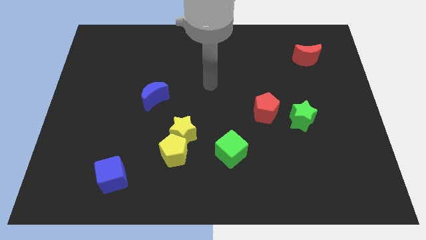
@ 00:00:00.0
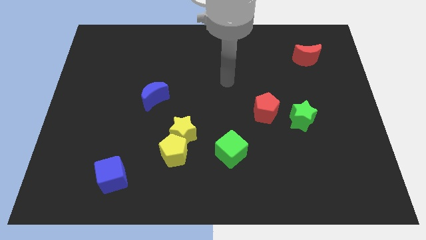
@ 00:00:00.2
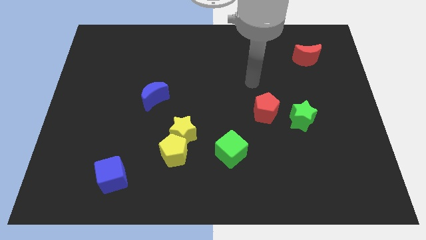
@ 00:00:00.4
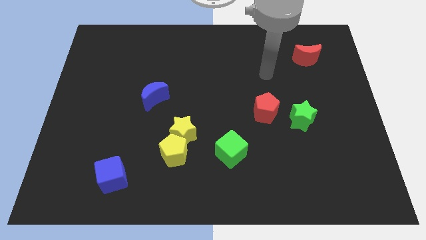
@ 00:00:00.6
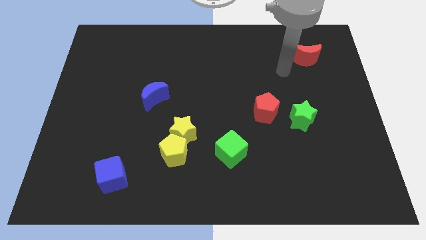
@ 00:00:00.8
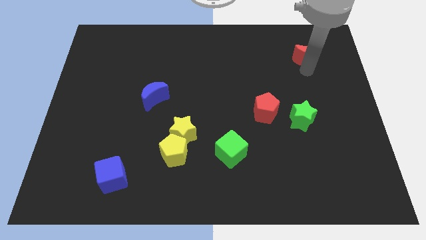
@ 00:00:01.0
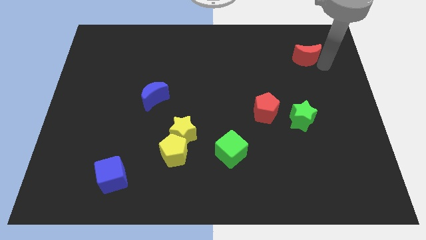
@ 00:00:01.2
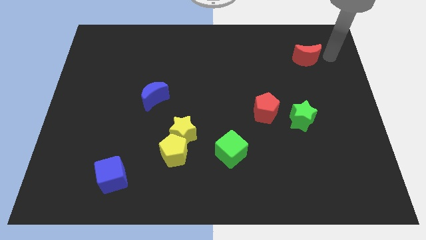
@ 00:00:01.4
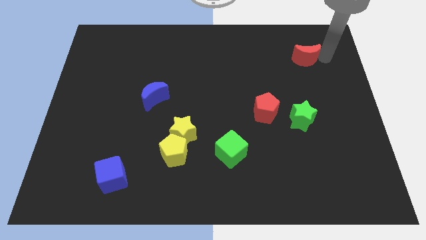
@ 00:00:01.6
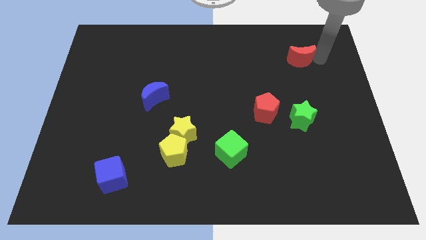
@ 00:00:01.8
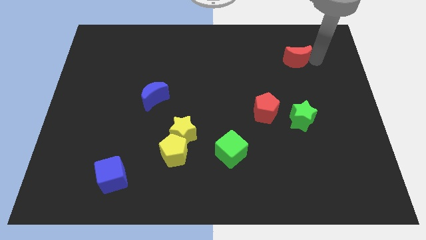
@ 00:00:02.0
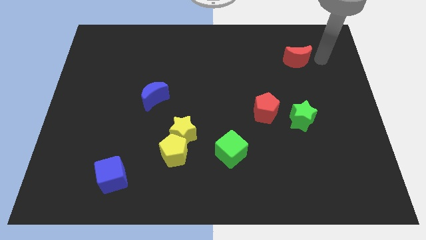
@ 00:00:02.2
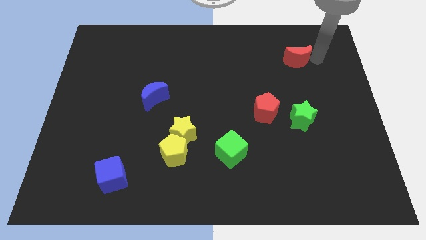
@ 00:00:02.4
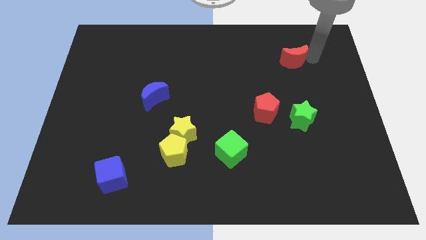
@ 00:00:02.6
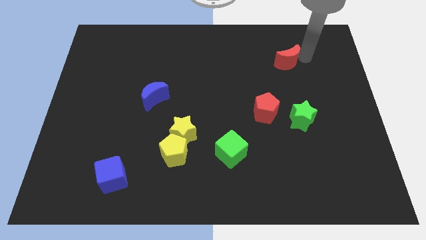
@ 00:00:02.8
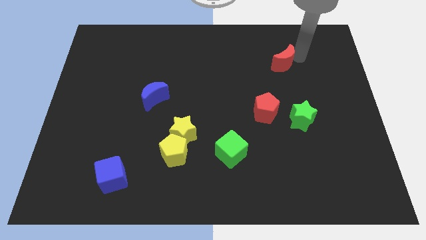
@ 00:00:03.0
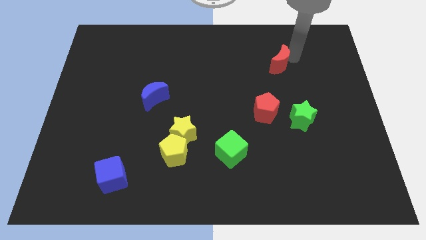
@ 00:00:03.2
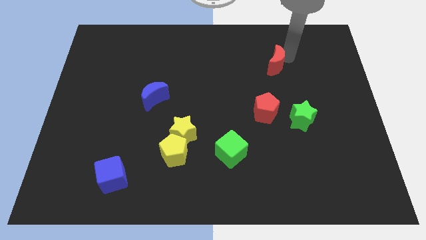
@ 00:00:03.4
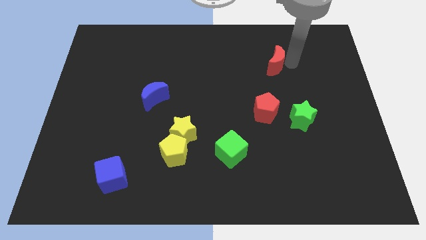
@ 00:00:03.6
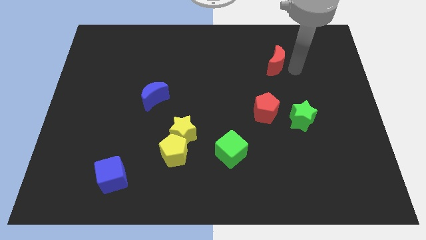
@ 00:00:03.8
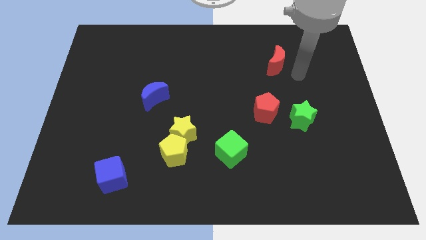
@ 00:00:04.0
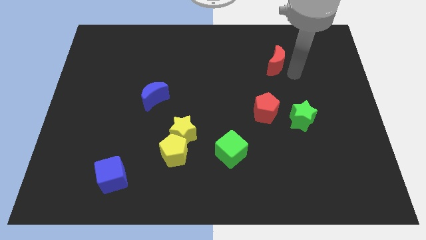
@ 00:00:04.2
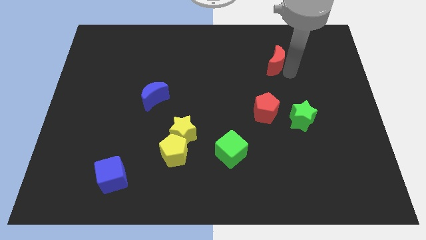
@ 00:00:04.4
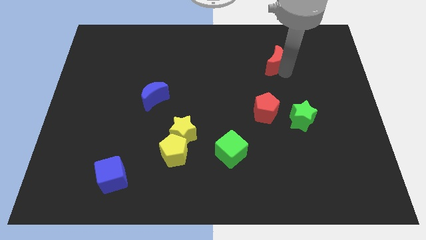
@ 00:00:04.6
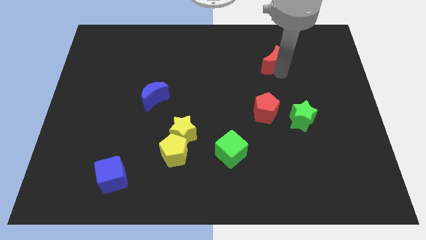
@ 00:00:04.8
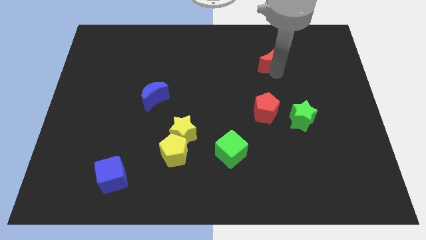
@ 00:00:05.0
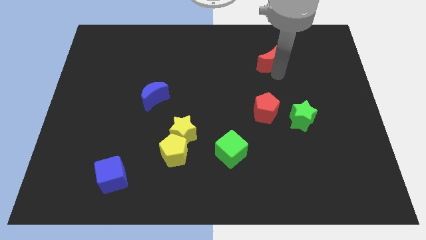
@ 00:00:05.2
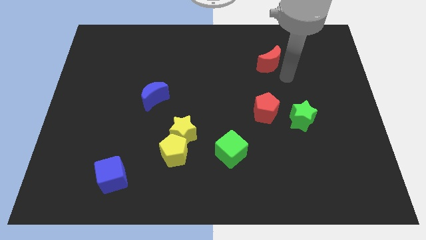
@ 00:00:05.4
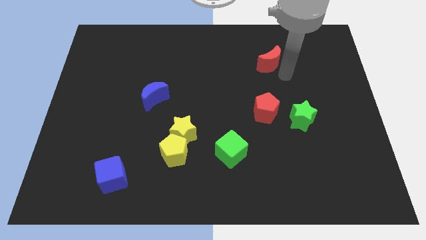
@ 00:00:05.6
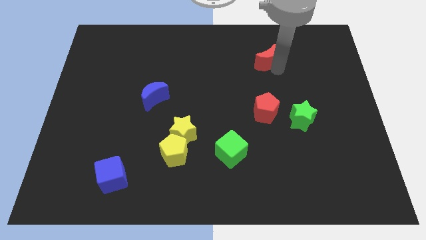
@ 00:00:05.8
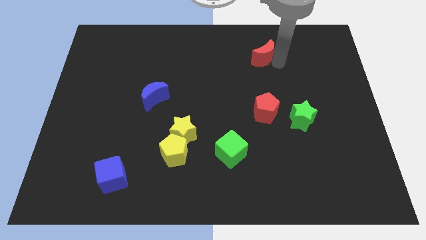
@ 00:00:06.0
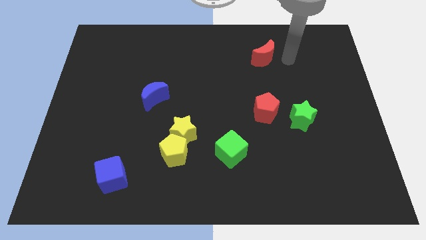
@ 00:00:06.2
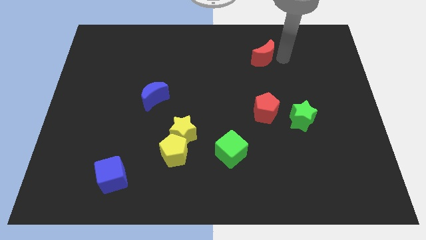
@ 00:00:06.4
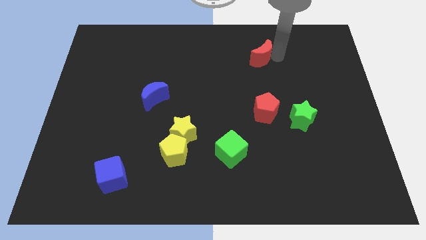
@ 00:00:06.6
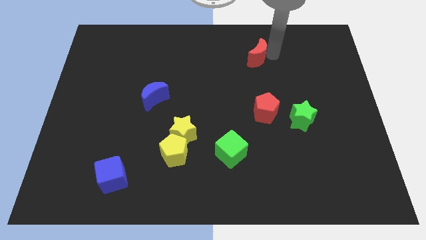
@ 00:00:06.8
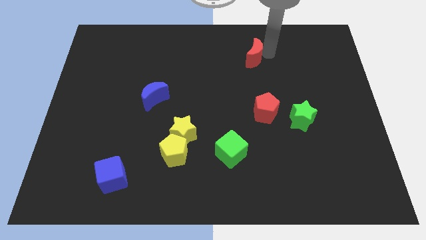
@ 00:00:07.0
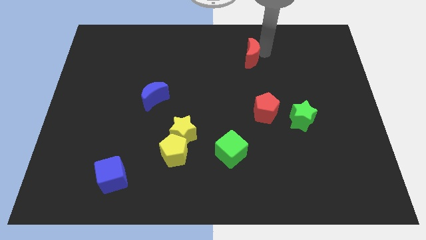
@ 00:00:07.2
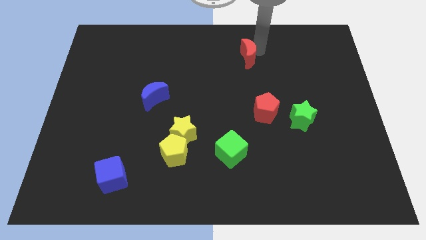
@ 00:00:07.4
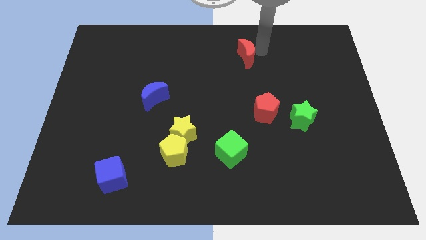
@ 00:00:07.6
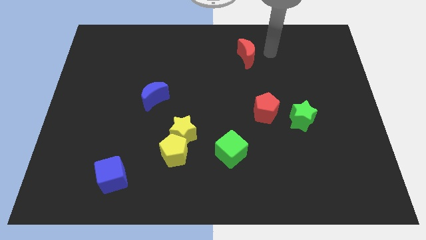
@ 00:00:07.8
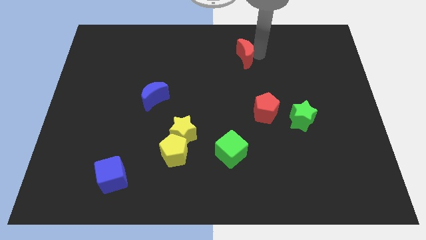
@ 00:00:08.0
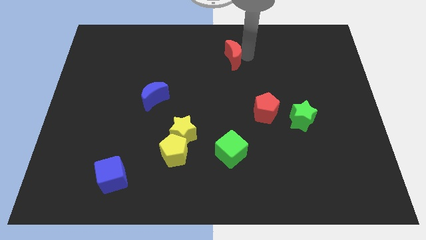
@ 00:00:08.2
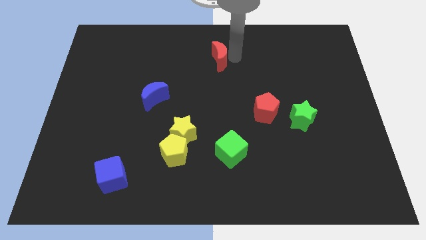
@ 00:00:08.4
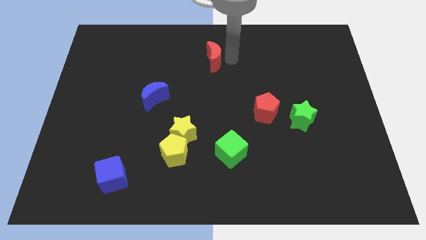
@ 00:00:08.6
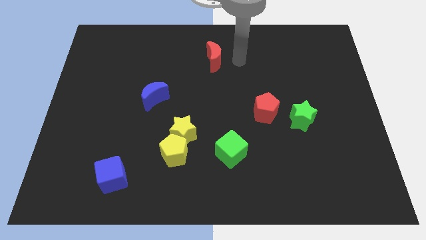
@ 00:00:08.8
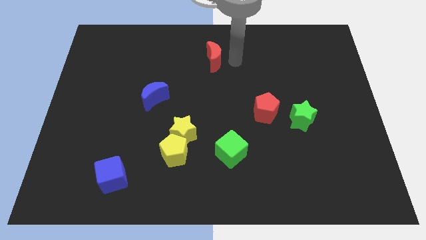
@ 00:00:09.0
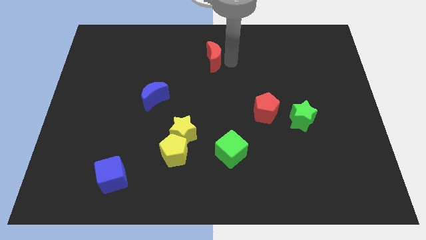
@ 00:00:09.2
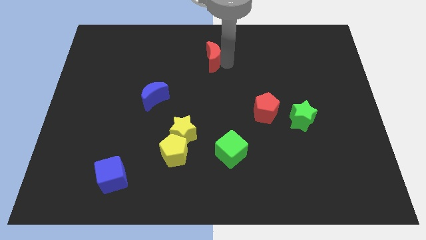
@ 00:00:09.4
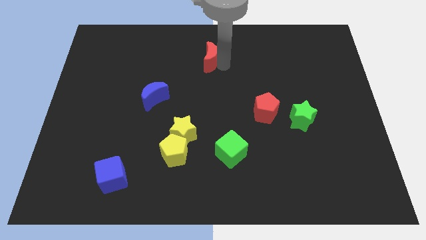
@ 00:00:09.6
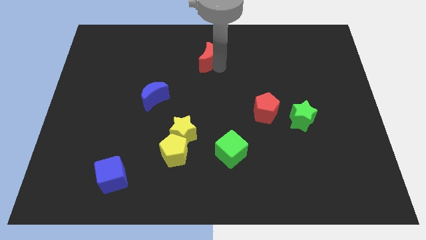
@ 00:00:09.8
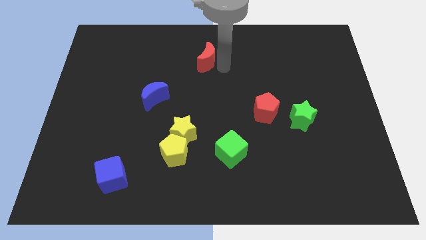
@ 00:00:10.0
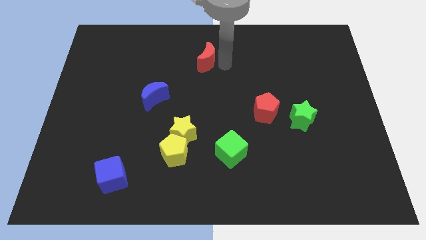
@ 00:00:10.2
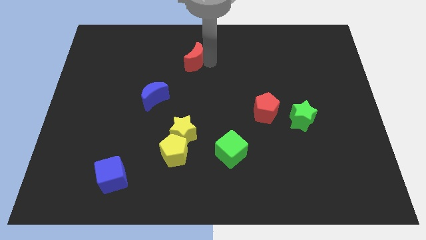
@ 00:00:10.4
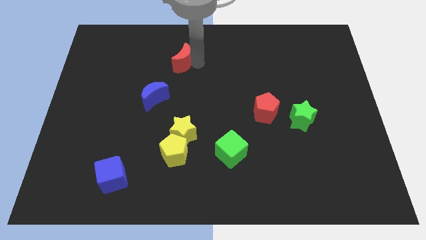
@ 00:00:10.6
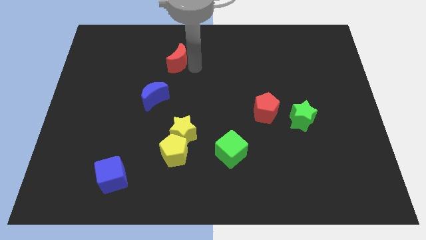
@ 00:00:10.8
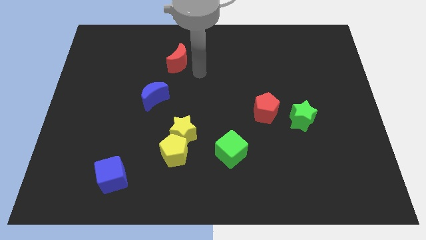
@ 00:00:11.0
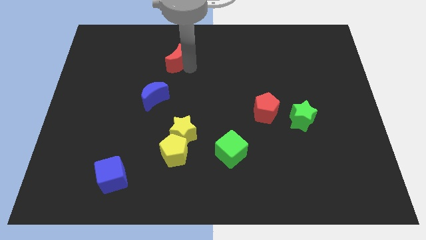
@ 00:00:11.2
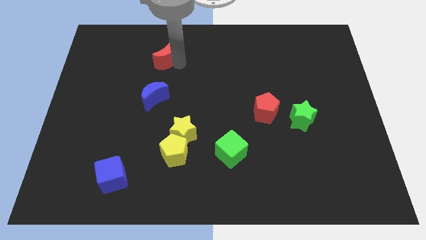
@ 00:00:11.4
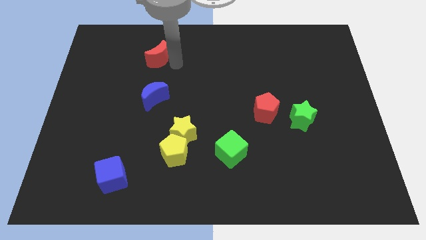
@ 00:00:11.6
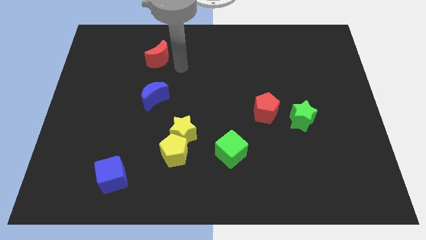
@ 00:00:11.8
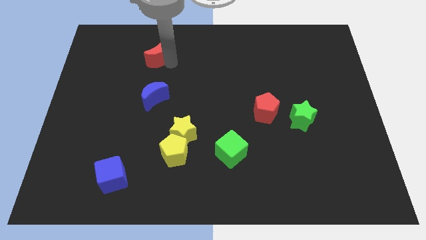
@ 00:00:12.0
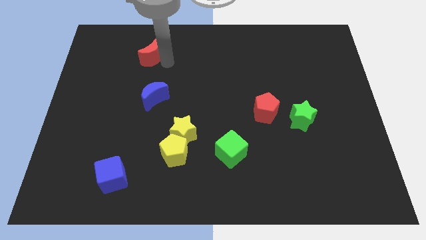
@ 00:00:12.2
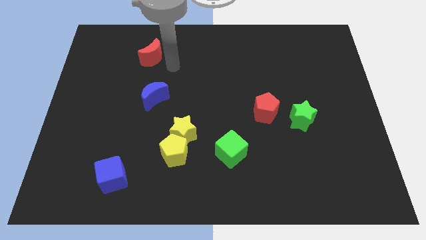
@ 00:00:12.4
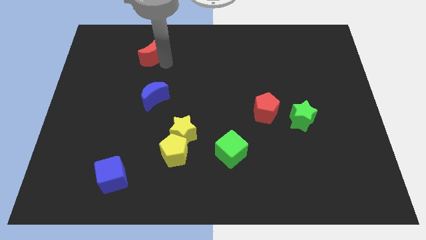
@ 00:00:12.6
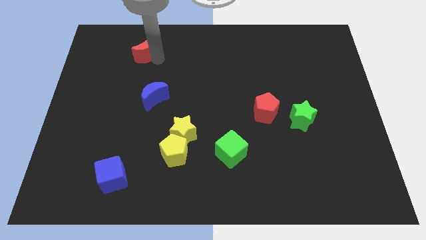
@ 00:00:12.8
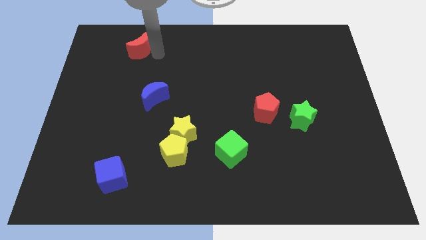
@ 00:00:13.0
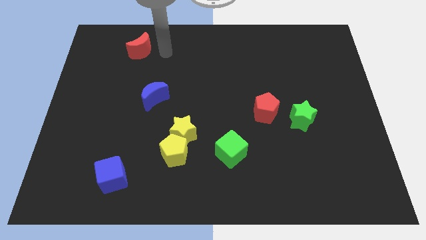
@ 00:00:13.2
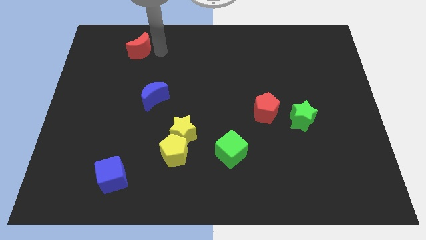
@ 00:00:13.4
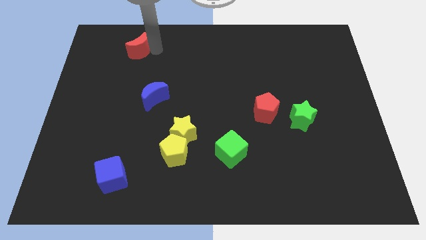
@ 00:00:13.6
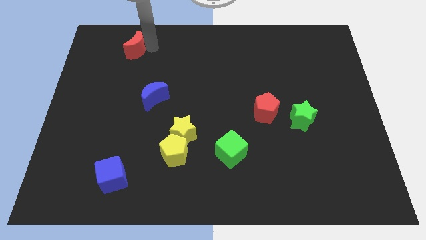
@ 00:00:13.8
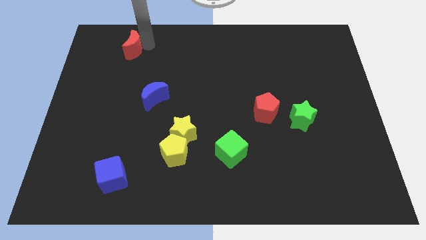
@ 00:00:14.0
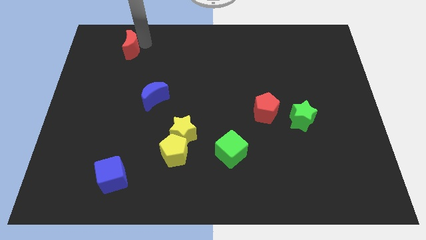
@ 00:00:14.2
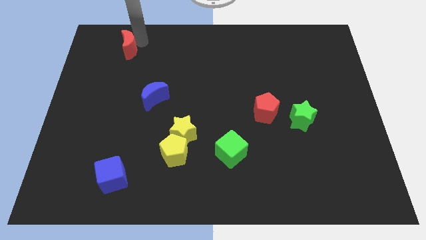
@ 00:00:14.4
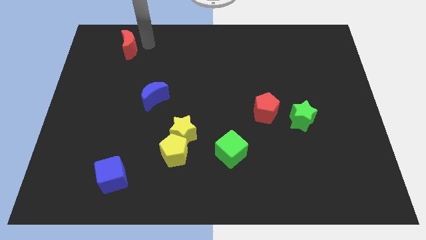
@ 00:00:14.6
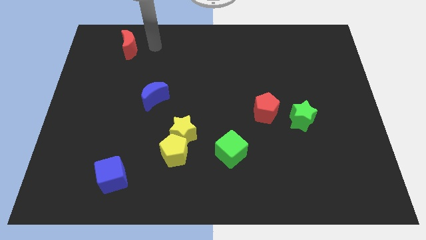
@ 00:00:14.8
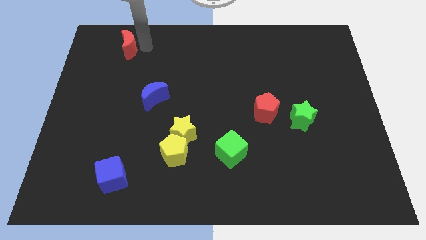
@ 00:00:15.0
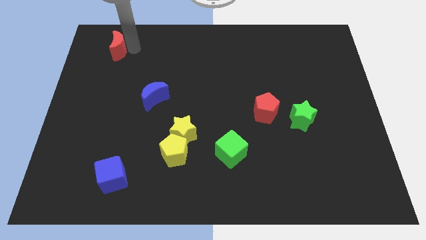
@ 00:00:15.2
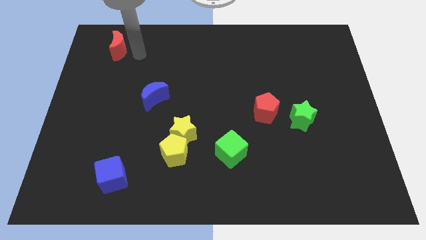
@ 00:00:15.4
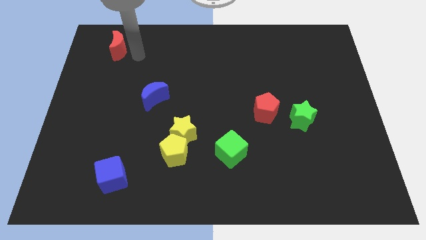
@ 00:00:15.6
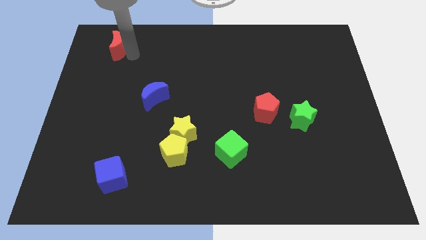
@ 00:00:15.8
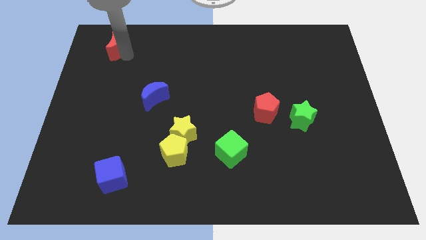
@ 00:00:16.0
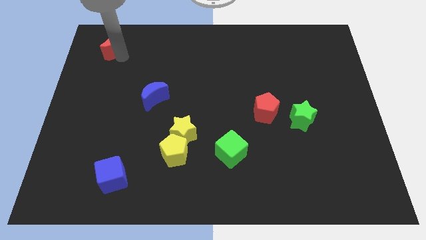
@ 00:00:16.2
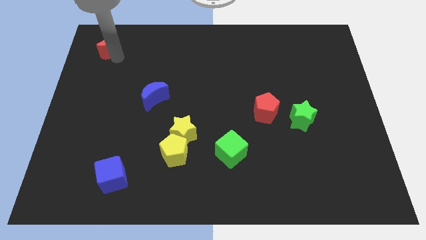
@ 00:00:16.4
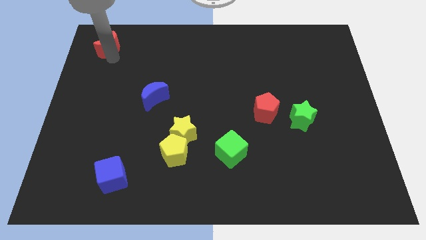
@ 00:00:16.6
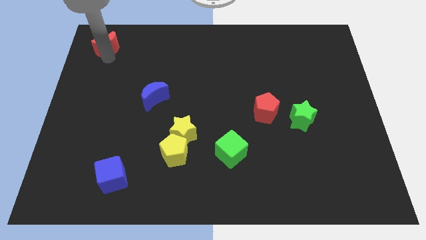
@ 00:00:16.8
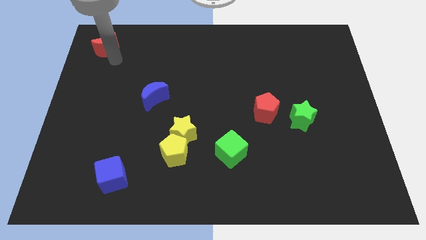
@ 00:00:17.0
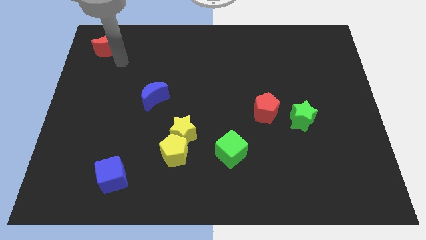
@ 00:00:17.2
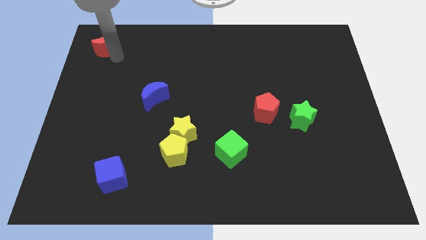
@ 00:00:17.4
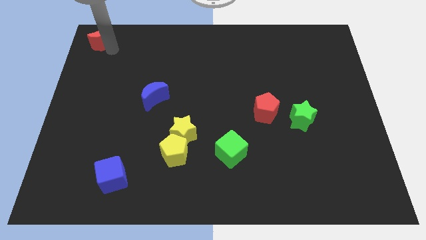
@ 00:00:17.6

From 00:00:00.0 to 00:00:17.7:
slide the red moon to the top left
